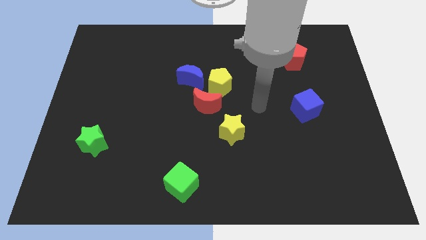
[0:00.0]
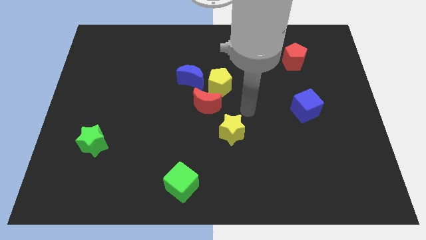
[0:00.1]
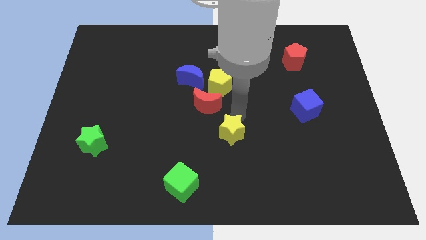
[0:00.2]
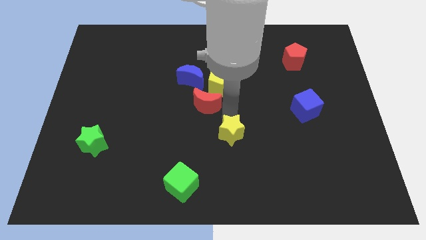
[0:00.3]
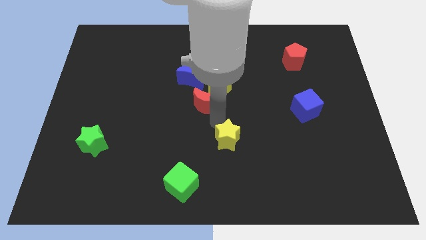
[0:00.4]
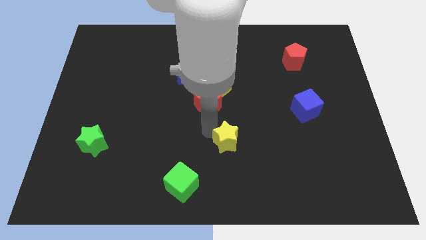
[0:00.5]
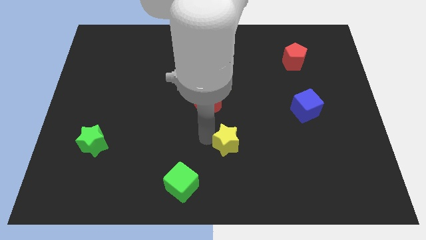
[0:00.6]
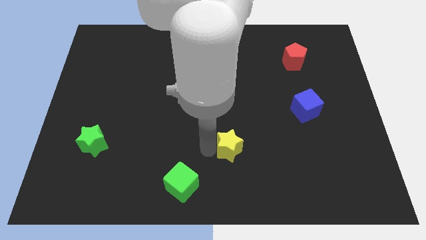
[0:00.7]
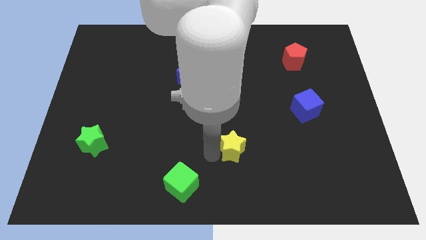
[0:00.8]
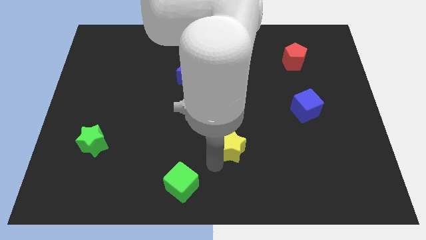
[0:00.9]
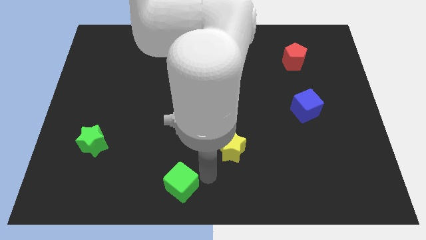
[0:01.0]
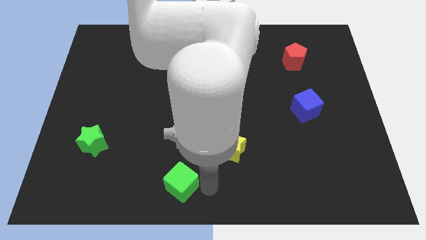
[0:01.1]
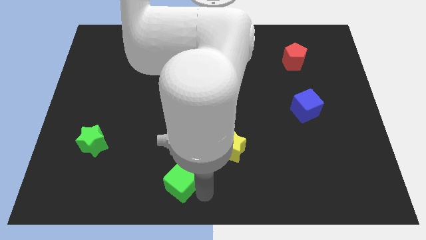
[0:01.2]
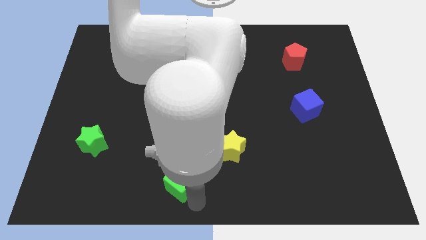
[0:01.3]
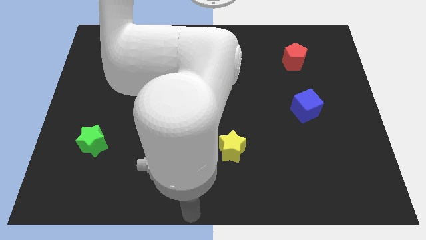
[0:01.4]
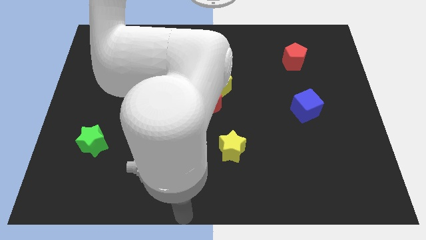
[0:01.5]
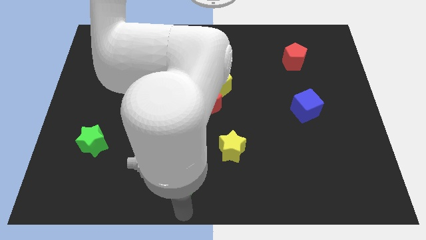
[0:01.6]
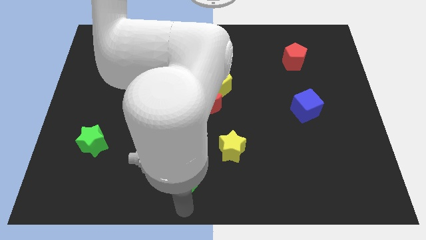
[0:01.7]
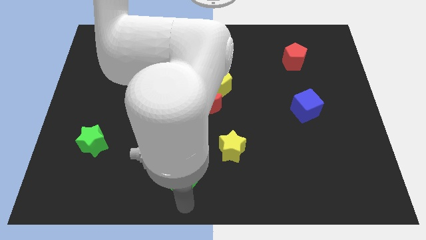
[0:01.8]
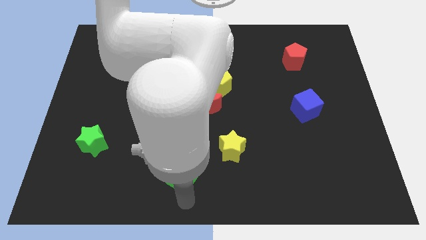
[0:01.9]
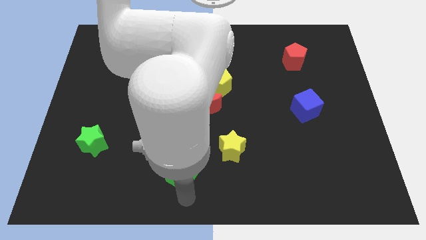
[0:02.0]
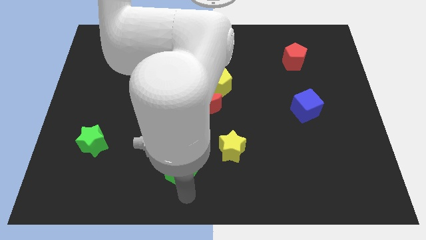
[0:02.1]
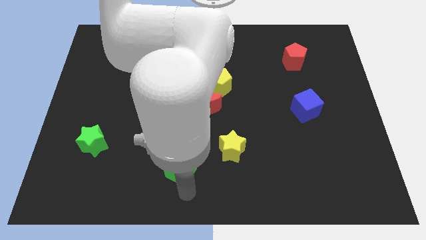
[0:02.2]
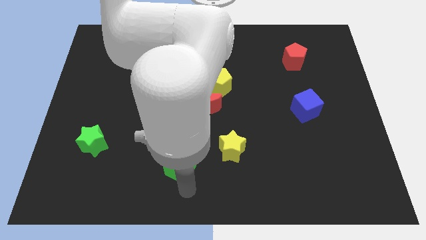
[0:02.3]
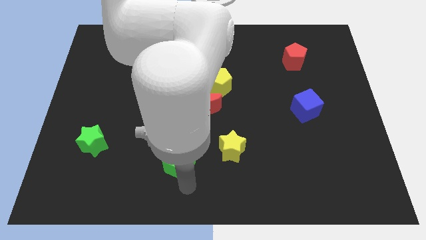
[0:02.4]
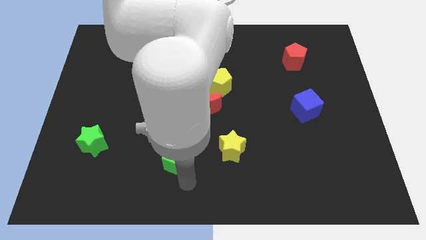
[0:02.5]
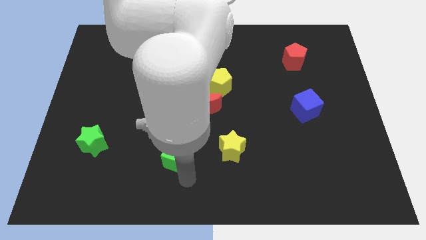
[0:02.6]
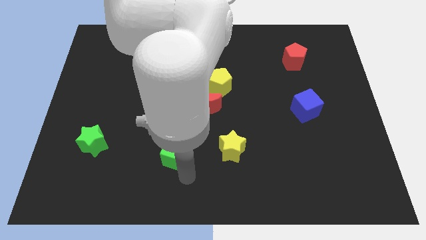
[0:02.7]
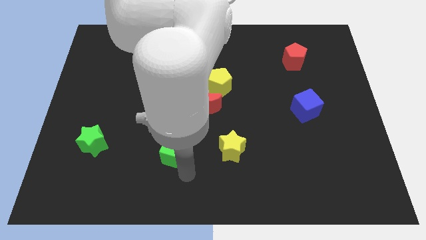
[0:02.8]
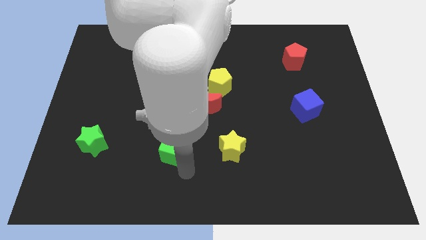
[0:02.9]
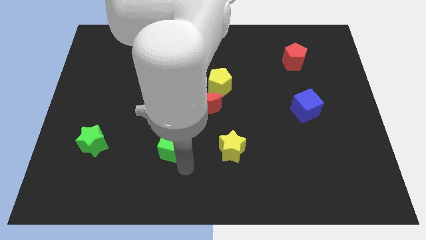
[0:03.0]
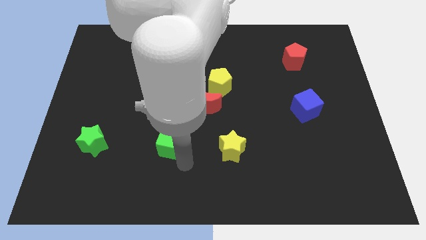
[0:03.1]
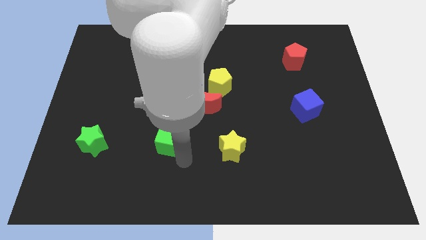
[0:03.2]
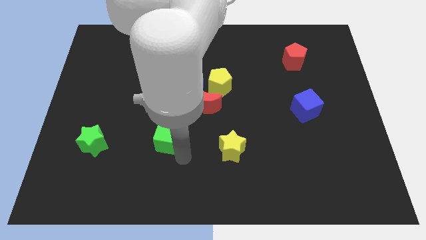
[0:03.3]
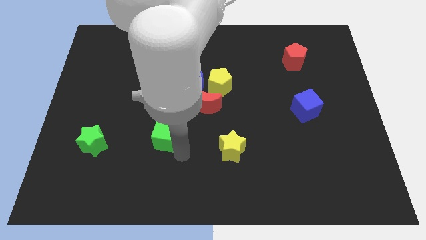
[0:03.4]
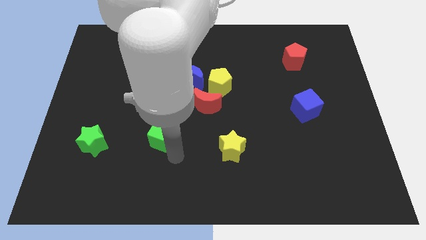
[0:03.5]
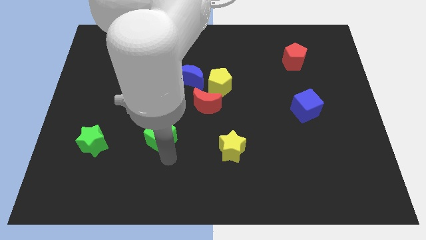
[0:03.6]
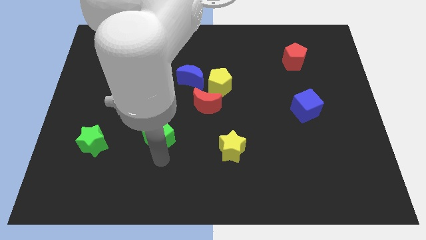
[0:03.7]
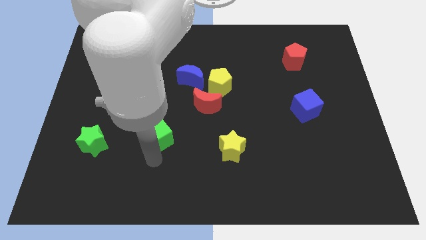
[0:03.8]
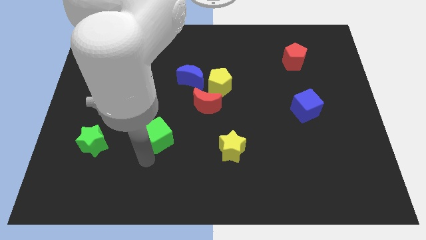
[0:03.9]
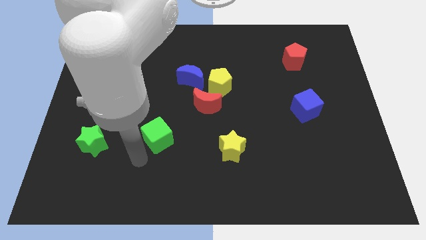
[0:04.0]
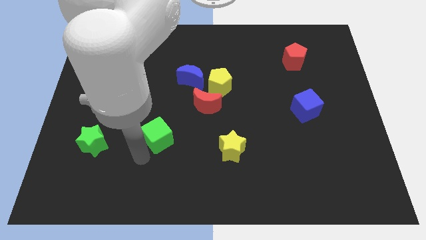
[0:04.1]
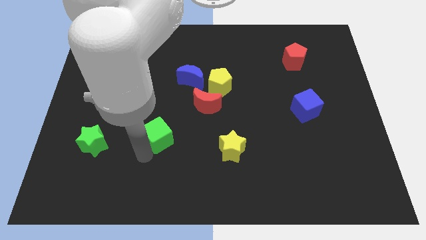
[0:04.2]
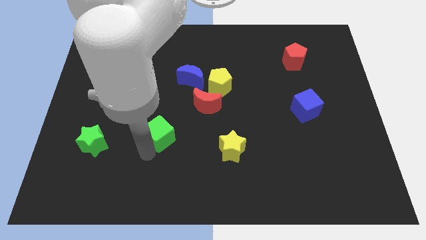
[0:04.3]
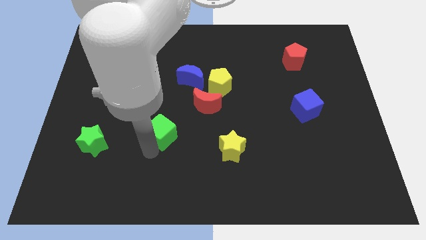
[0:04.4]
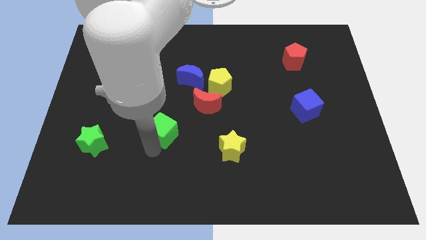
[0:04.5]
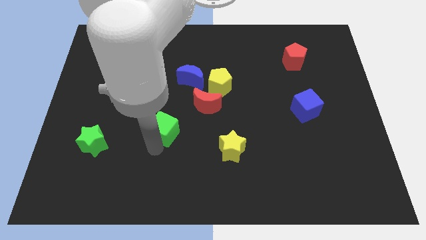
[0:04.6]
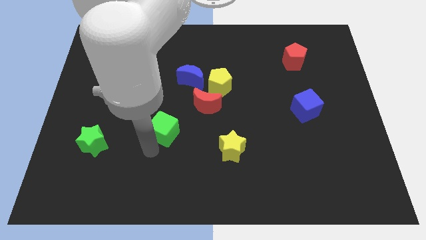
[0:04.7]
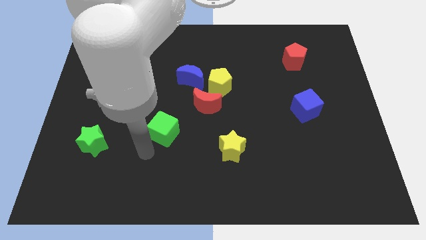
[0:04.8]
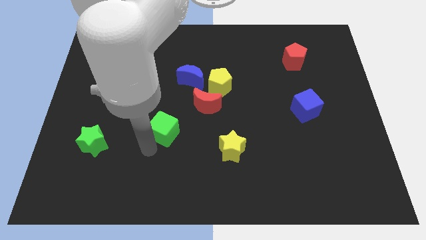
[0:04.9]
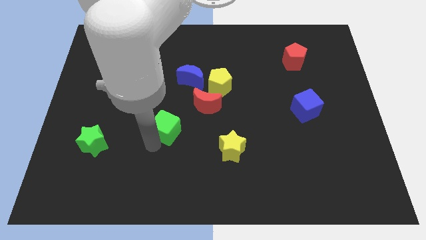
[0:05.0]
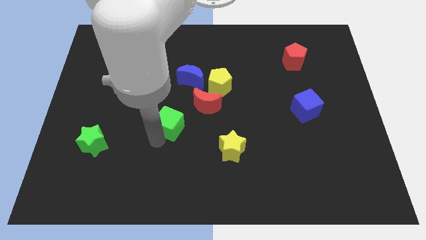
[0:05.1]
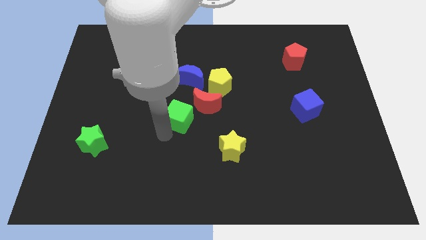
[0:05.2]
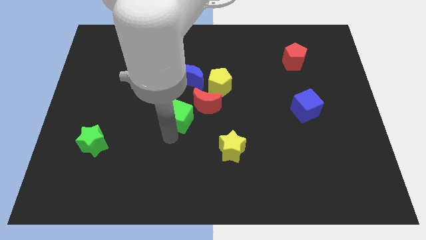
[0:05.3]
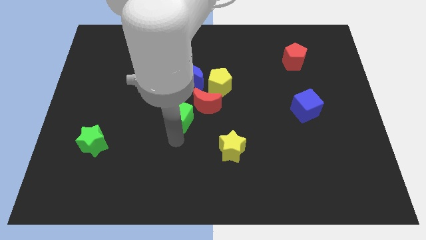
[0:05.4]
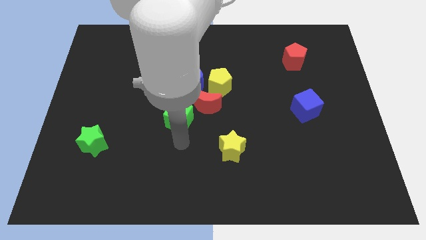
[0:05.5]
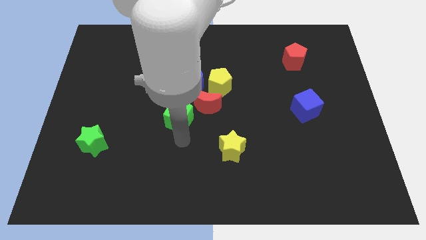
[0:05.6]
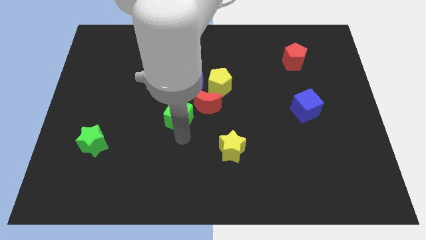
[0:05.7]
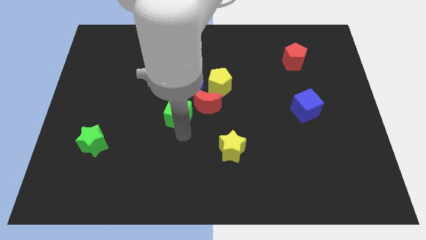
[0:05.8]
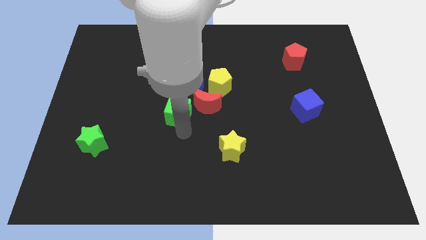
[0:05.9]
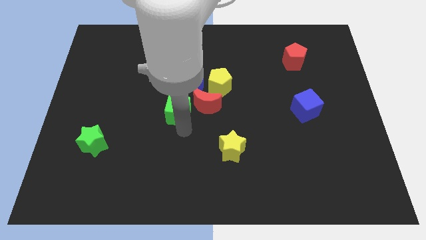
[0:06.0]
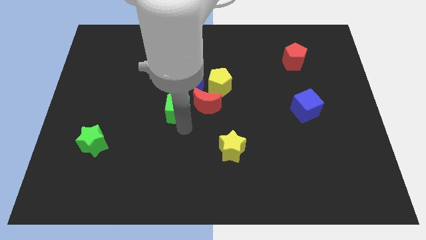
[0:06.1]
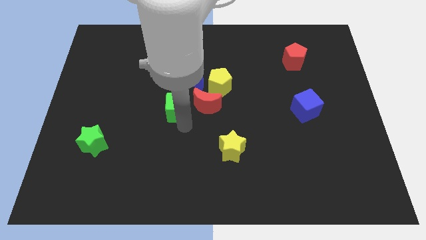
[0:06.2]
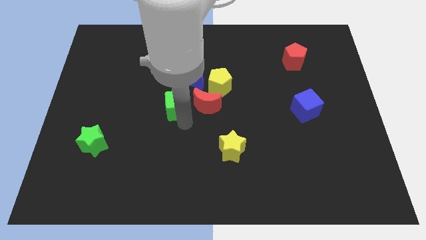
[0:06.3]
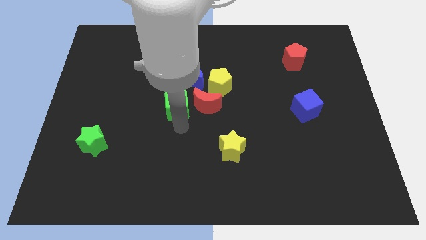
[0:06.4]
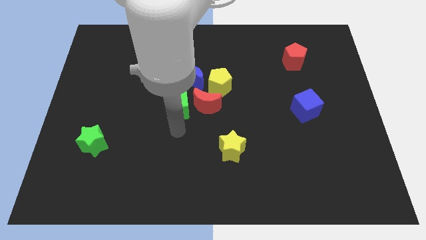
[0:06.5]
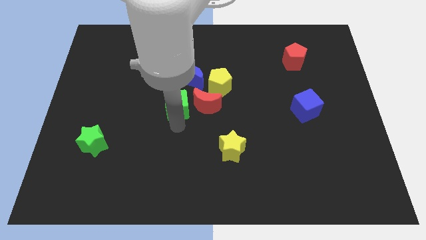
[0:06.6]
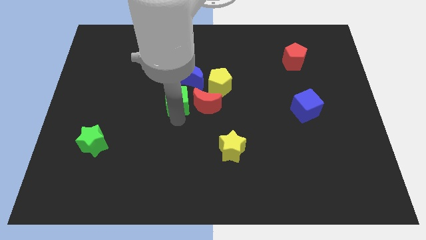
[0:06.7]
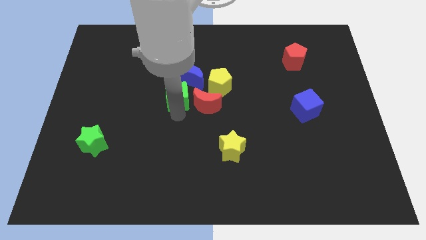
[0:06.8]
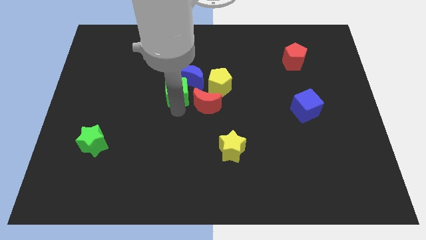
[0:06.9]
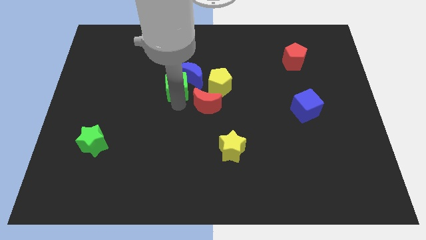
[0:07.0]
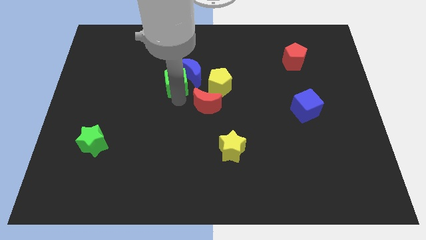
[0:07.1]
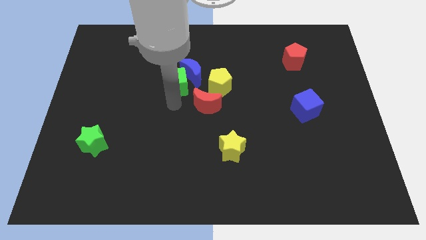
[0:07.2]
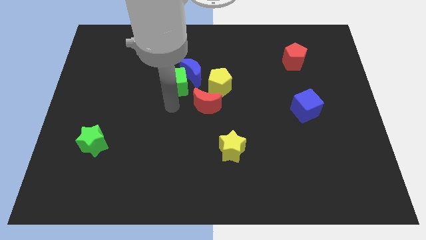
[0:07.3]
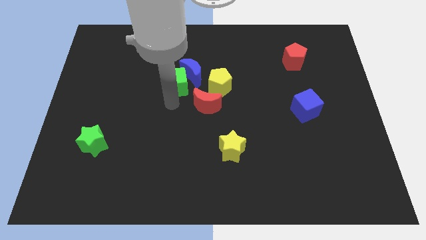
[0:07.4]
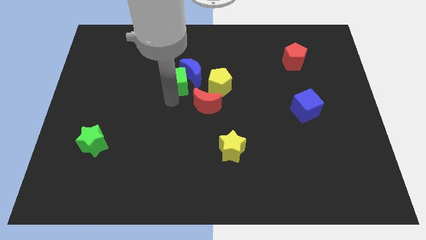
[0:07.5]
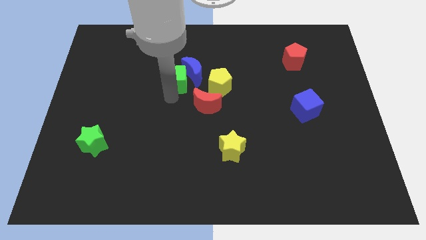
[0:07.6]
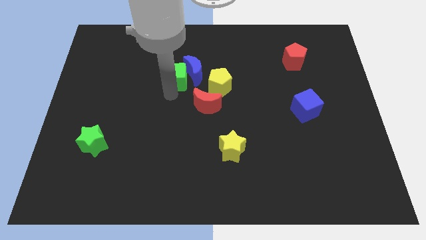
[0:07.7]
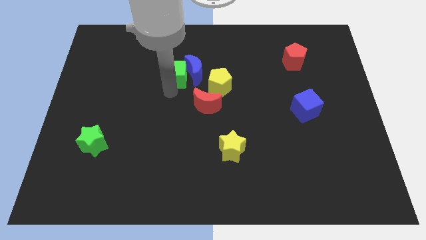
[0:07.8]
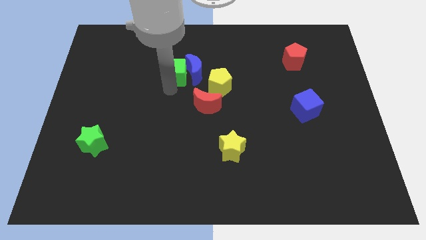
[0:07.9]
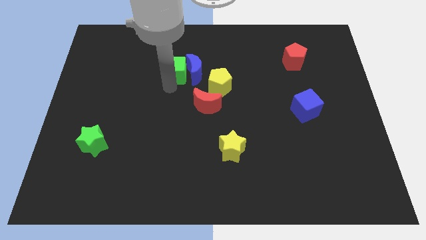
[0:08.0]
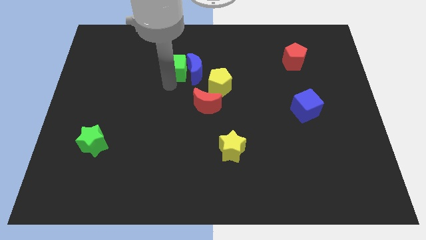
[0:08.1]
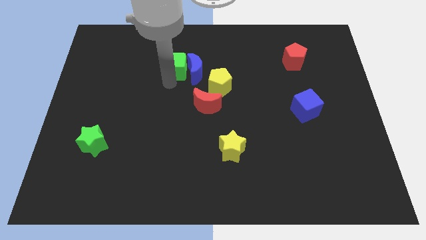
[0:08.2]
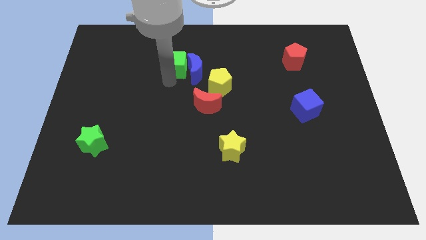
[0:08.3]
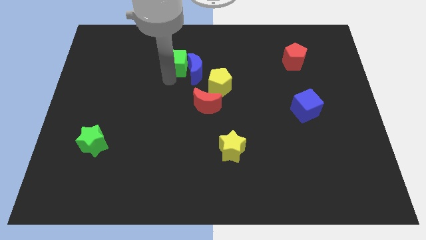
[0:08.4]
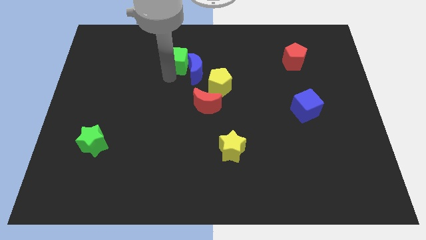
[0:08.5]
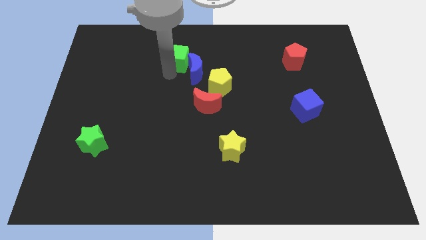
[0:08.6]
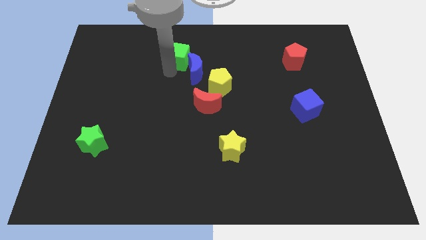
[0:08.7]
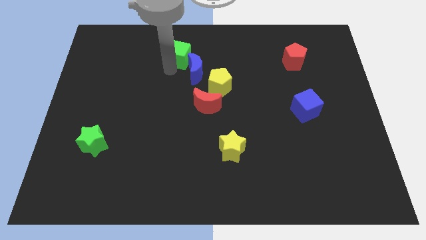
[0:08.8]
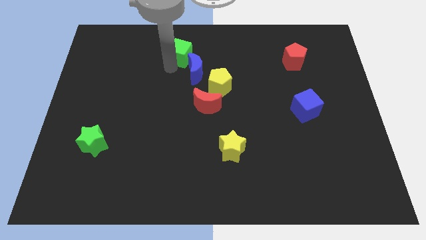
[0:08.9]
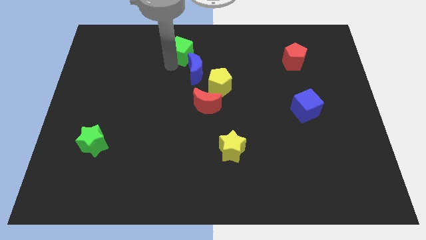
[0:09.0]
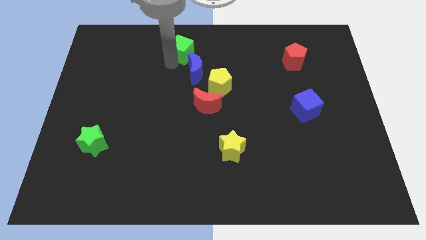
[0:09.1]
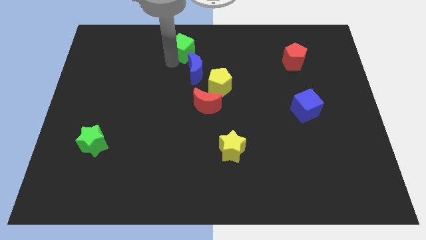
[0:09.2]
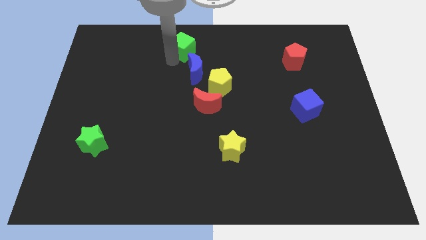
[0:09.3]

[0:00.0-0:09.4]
put the green cube to the towards your base
